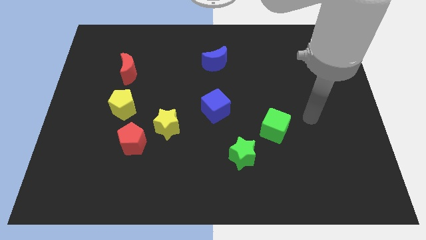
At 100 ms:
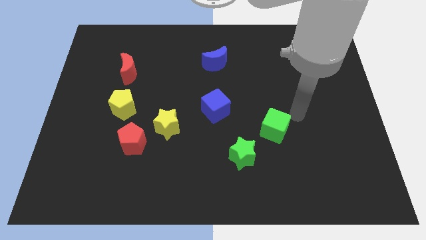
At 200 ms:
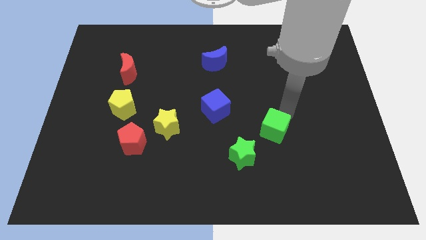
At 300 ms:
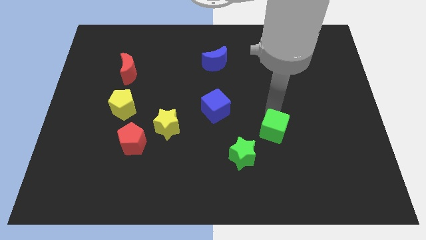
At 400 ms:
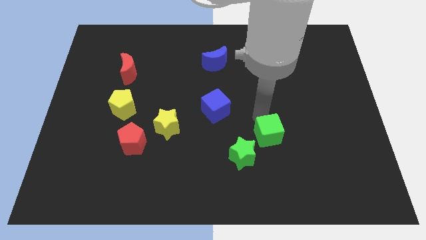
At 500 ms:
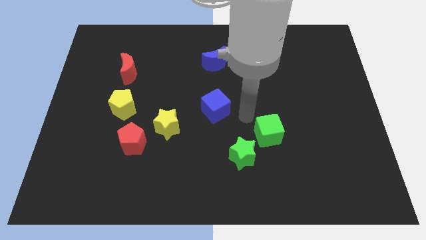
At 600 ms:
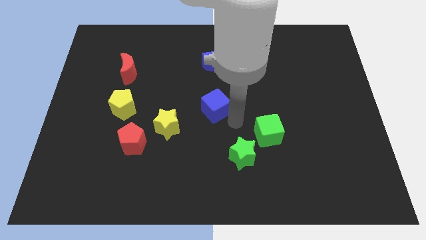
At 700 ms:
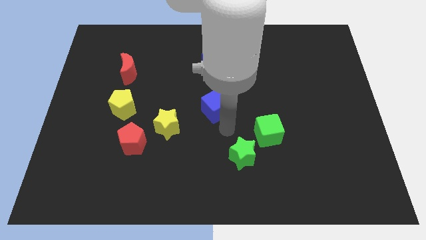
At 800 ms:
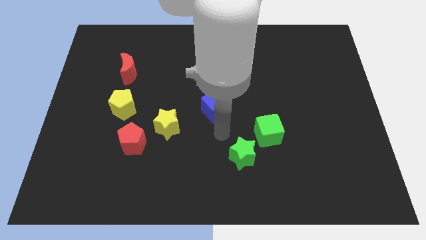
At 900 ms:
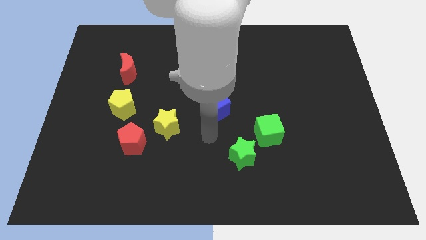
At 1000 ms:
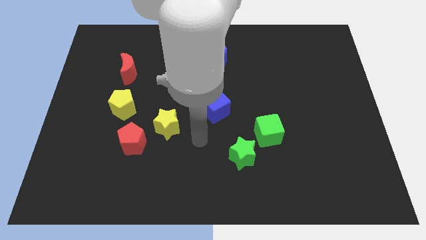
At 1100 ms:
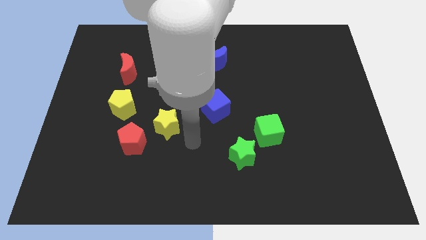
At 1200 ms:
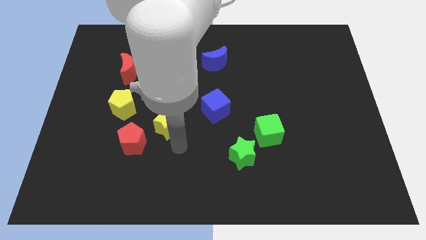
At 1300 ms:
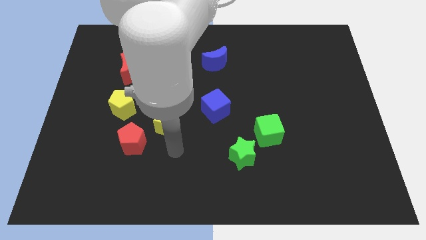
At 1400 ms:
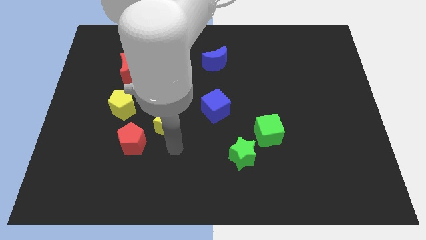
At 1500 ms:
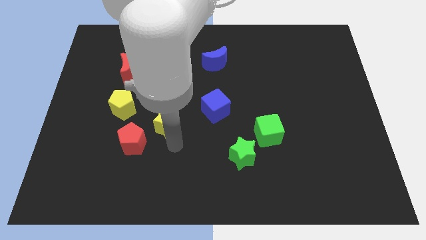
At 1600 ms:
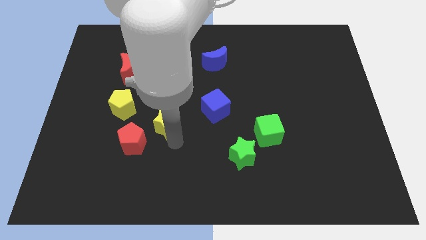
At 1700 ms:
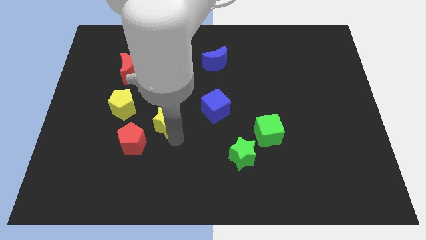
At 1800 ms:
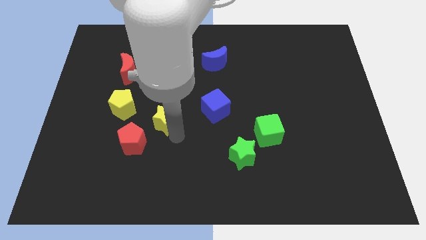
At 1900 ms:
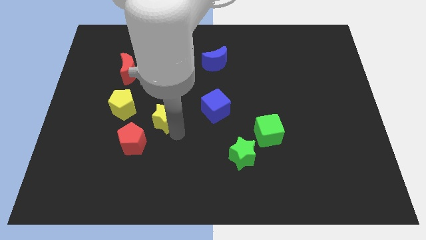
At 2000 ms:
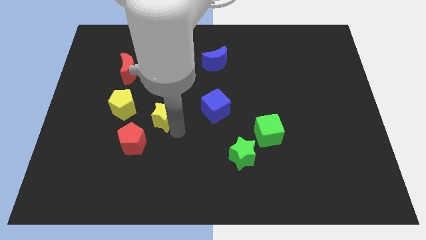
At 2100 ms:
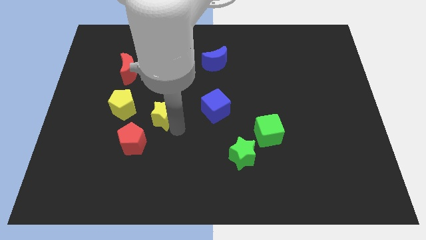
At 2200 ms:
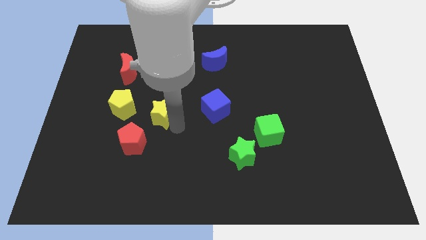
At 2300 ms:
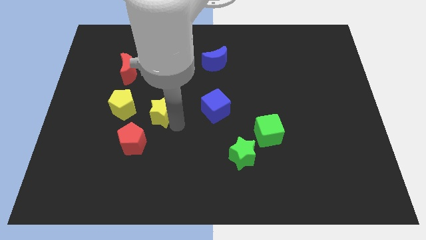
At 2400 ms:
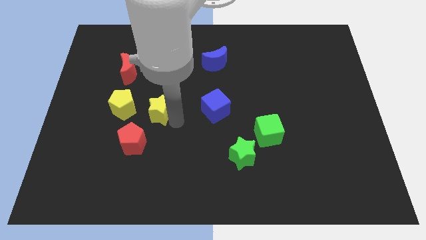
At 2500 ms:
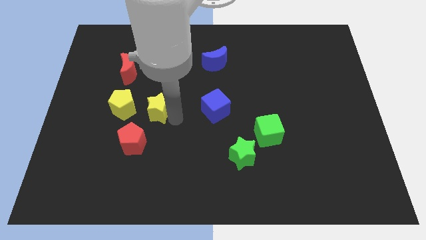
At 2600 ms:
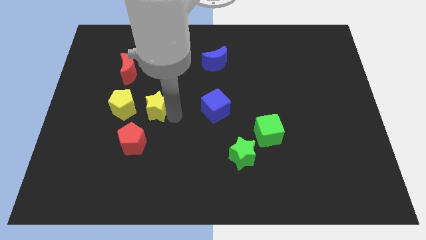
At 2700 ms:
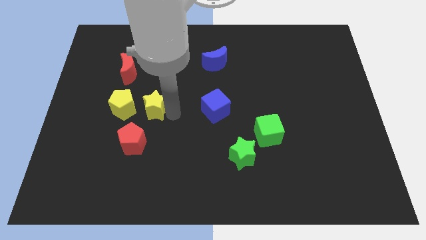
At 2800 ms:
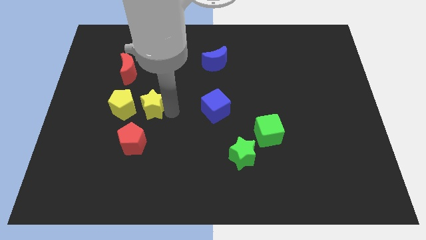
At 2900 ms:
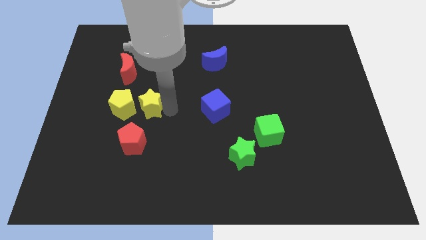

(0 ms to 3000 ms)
slide the yellow star upwards and left diagonally a little bit

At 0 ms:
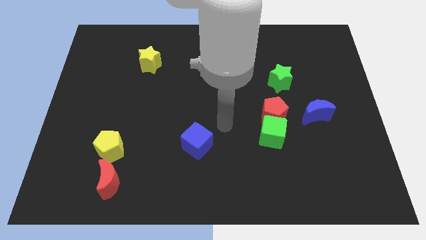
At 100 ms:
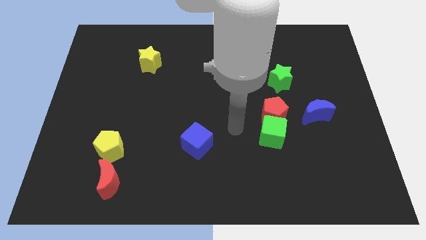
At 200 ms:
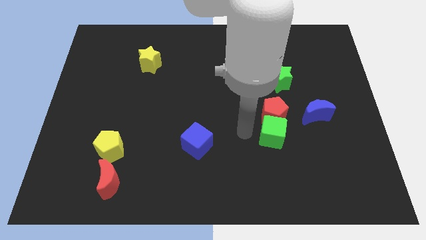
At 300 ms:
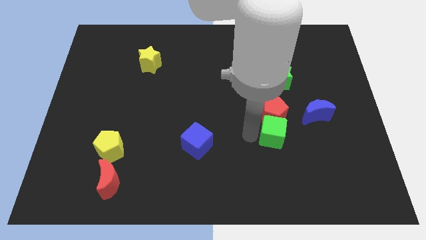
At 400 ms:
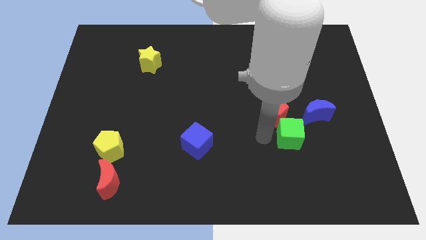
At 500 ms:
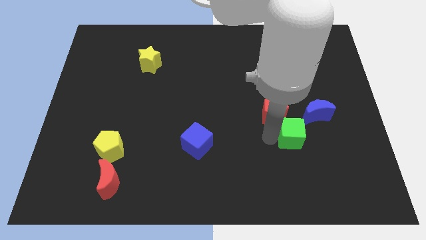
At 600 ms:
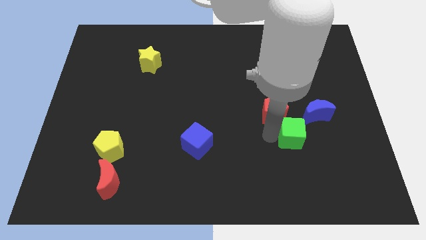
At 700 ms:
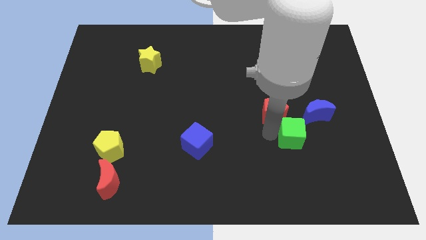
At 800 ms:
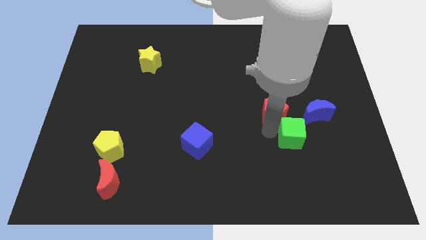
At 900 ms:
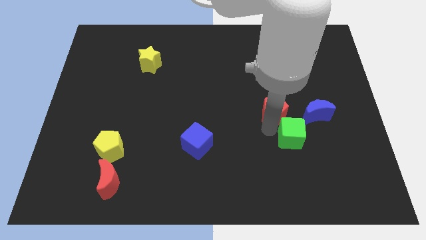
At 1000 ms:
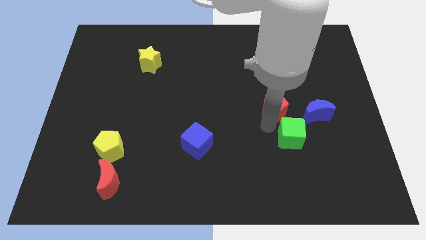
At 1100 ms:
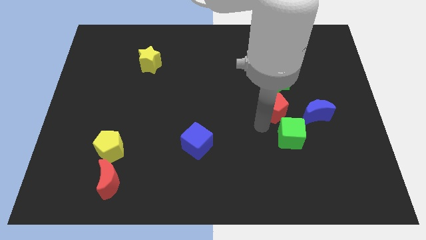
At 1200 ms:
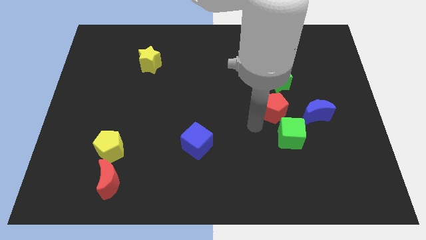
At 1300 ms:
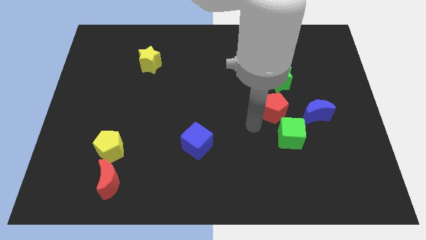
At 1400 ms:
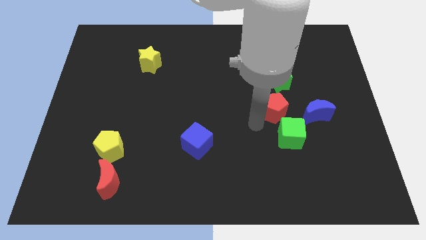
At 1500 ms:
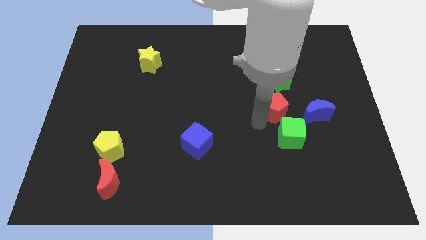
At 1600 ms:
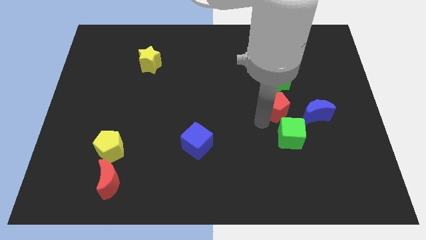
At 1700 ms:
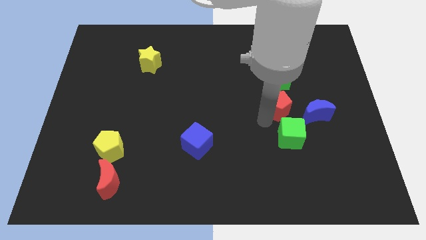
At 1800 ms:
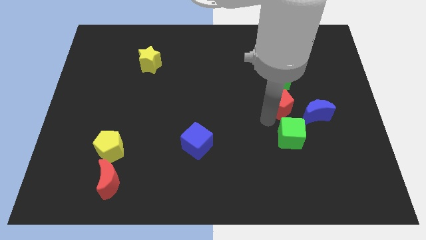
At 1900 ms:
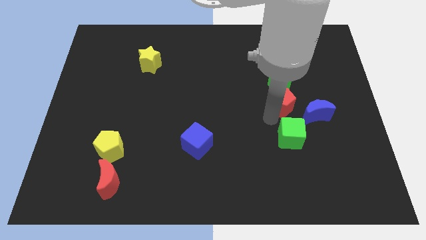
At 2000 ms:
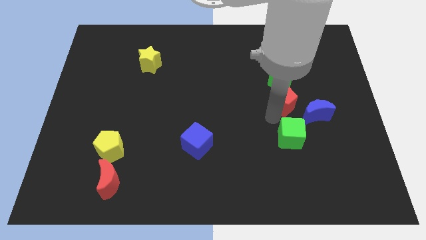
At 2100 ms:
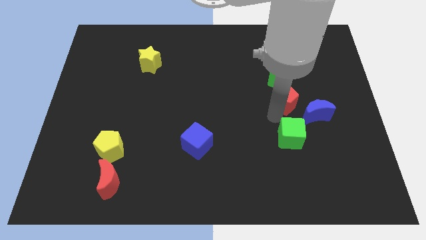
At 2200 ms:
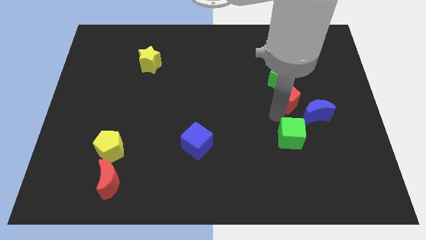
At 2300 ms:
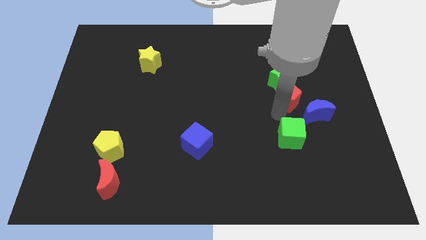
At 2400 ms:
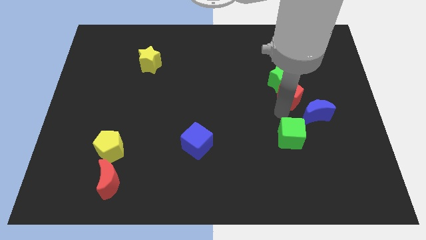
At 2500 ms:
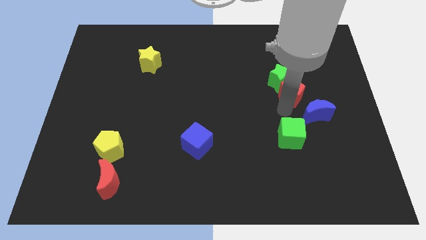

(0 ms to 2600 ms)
slide the red pentagon a little up and right diagonally

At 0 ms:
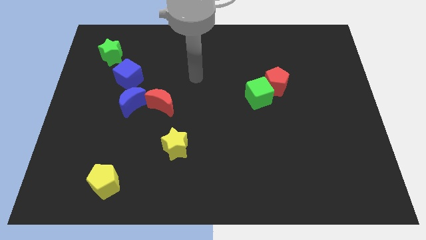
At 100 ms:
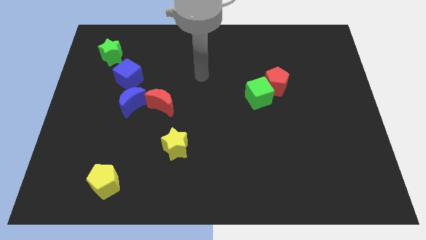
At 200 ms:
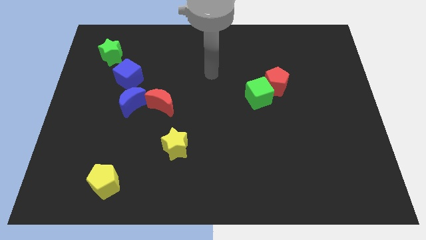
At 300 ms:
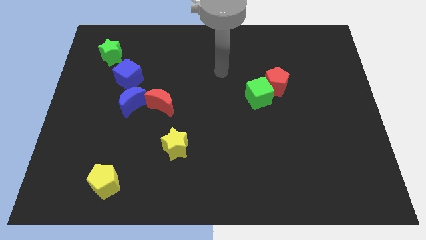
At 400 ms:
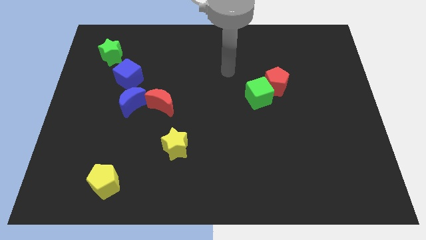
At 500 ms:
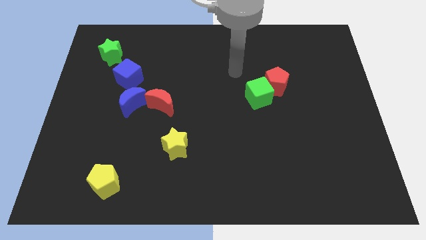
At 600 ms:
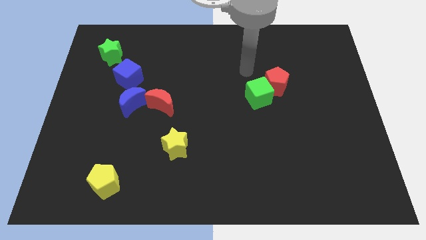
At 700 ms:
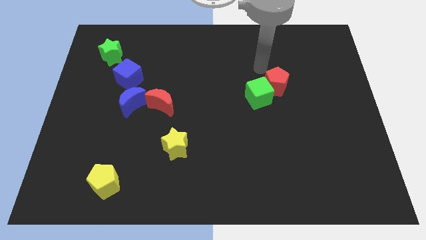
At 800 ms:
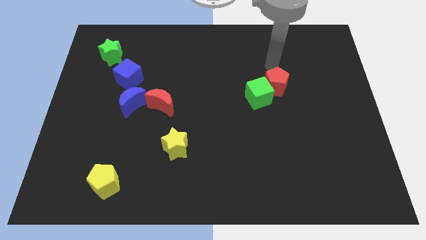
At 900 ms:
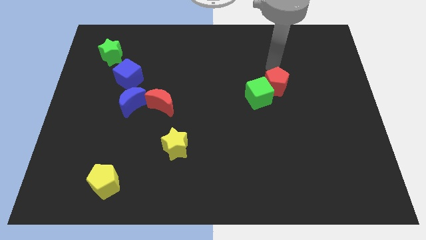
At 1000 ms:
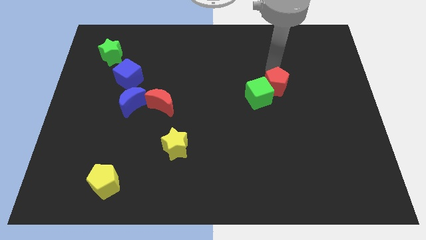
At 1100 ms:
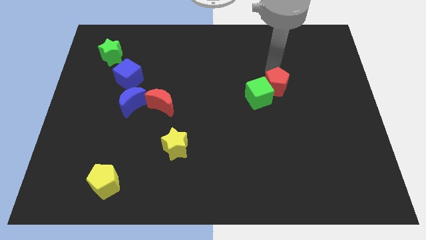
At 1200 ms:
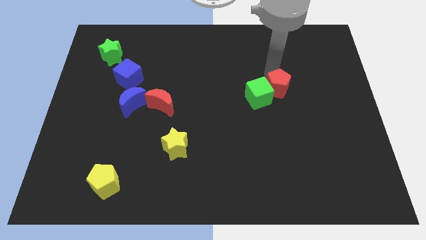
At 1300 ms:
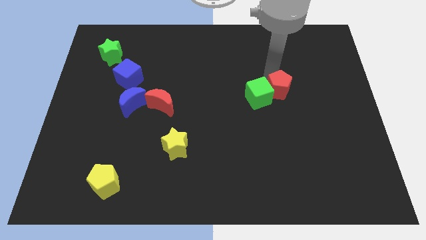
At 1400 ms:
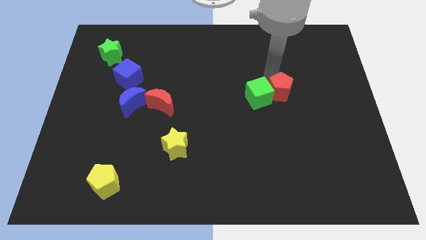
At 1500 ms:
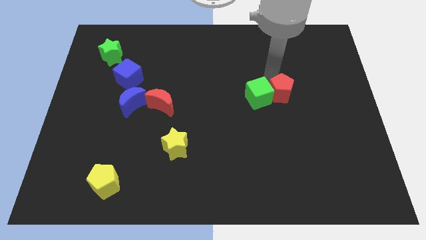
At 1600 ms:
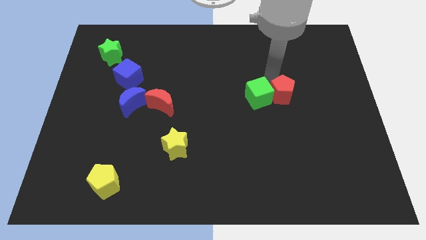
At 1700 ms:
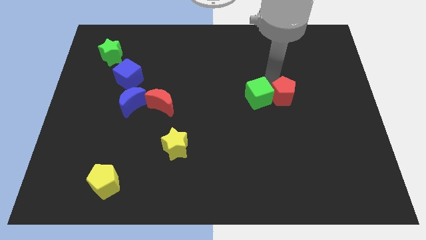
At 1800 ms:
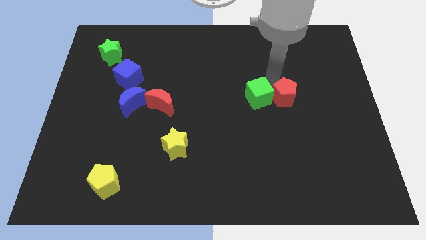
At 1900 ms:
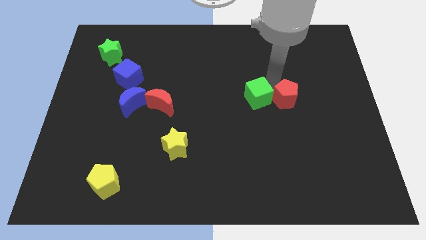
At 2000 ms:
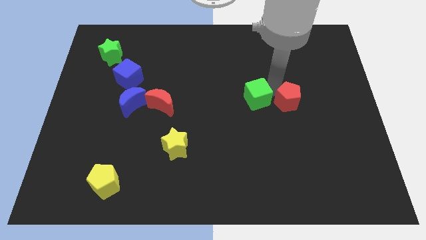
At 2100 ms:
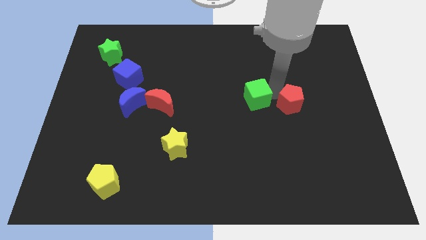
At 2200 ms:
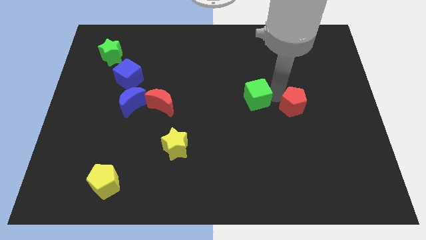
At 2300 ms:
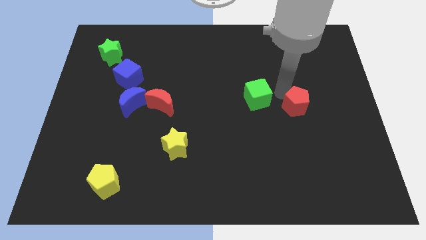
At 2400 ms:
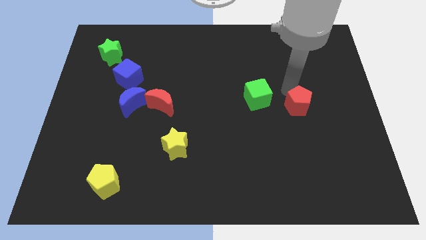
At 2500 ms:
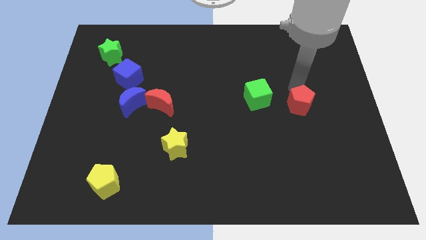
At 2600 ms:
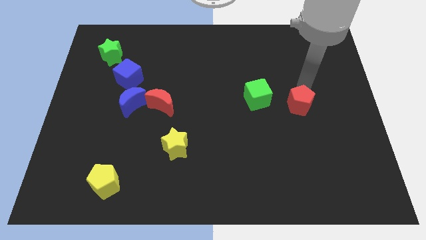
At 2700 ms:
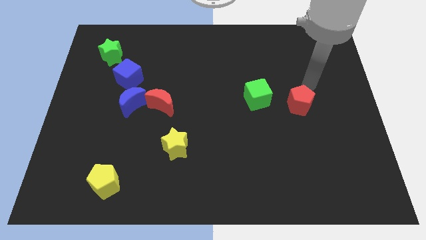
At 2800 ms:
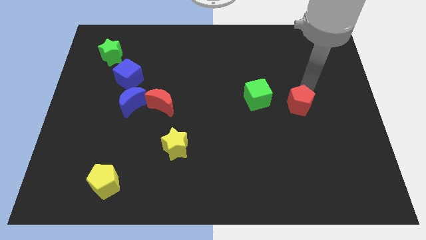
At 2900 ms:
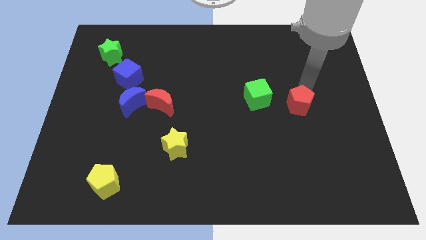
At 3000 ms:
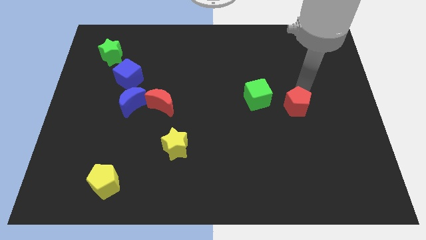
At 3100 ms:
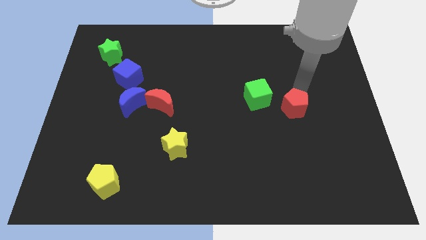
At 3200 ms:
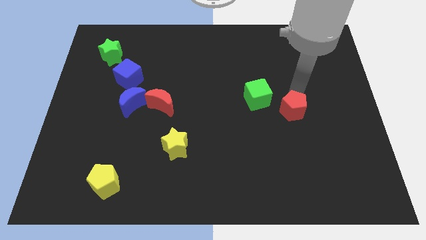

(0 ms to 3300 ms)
slightly move the red pentagon downwards
